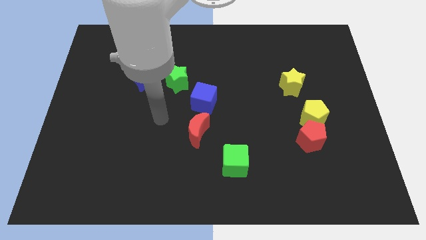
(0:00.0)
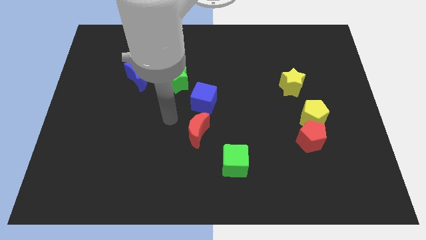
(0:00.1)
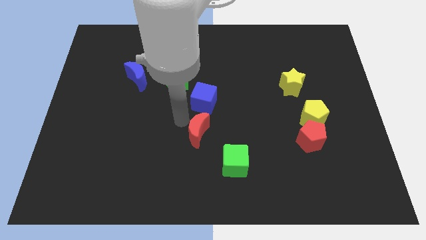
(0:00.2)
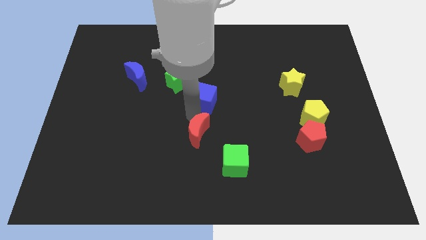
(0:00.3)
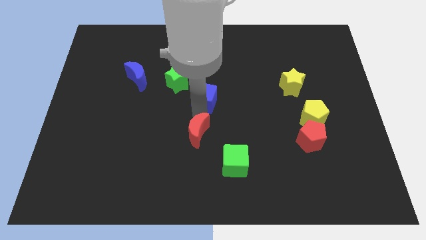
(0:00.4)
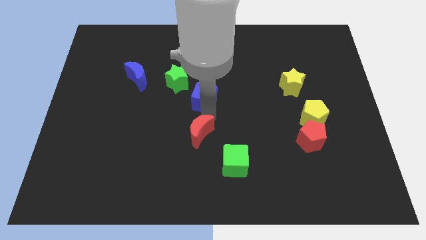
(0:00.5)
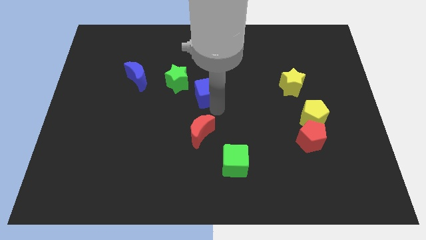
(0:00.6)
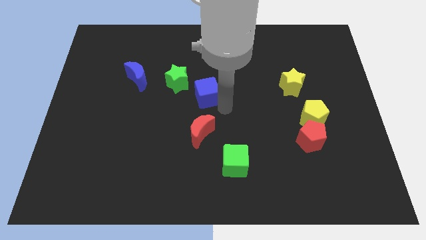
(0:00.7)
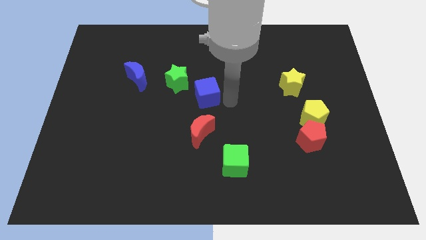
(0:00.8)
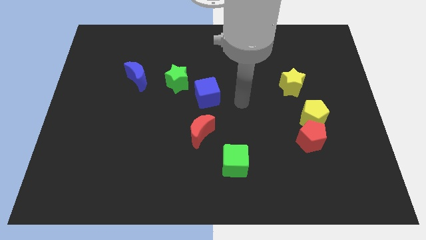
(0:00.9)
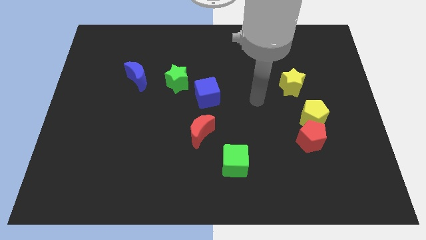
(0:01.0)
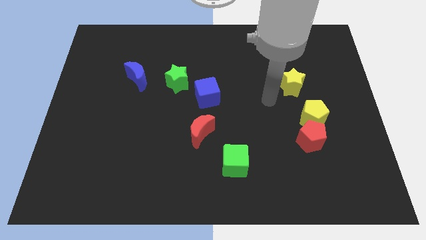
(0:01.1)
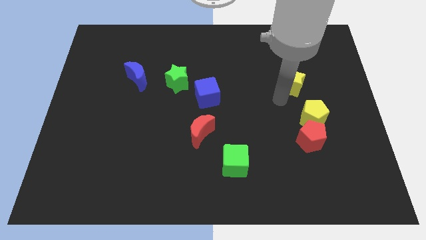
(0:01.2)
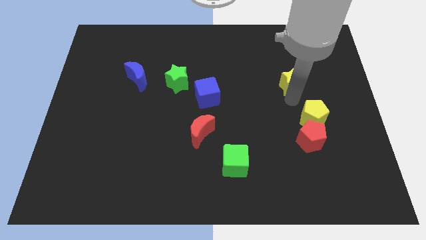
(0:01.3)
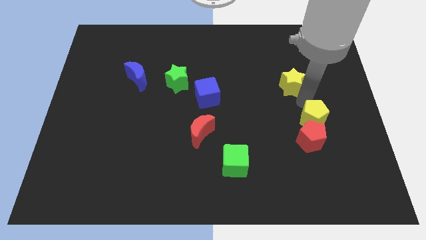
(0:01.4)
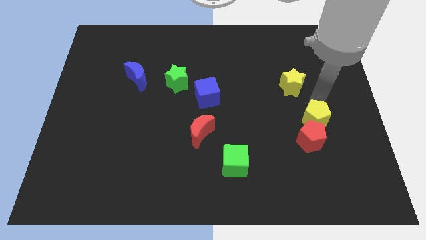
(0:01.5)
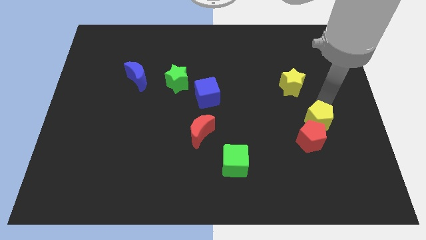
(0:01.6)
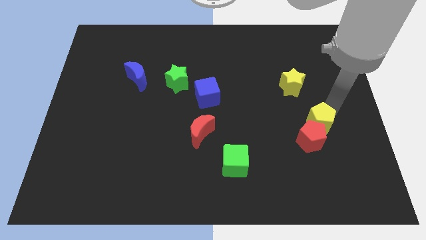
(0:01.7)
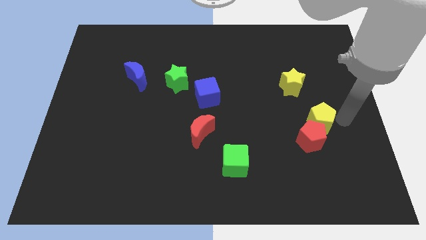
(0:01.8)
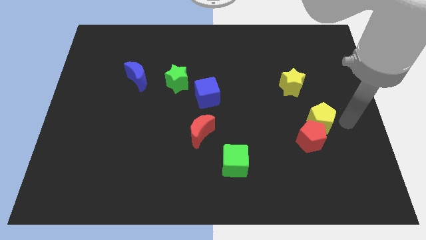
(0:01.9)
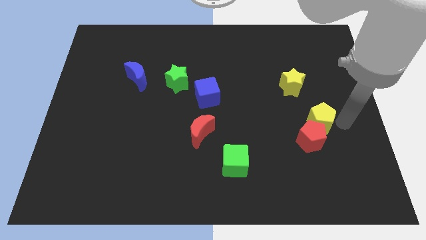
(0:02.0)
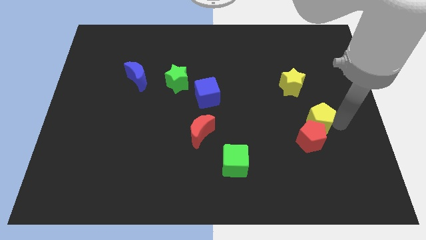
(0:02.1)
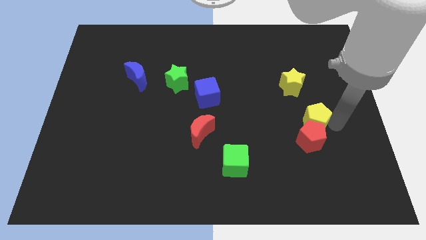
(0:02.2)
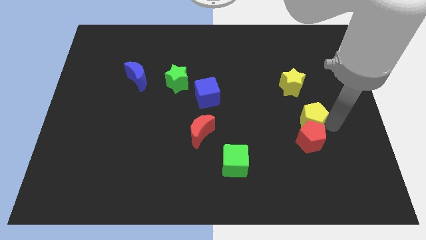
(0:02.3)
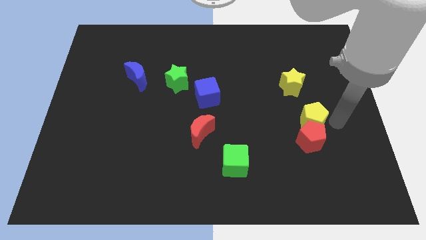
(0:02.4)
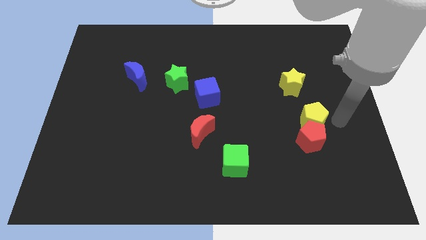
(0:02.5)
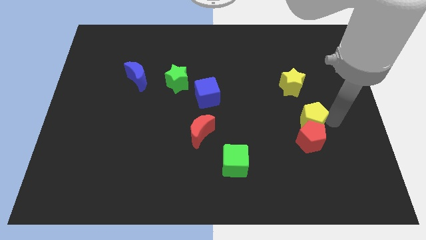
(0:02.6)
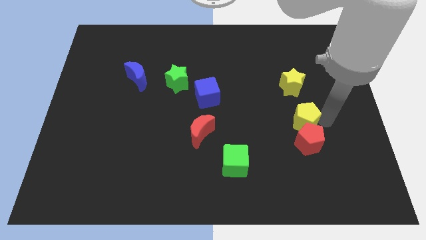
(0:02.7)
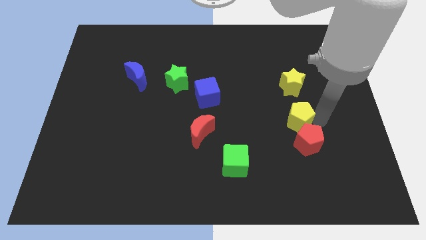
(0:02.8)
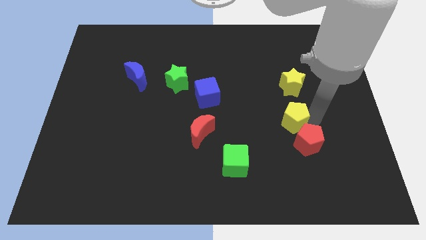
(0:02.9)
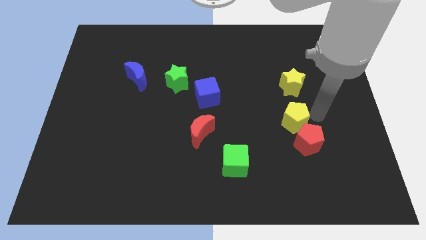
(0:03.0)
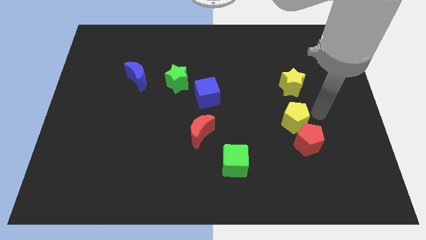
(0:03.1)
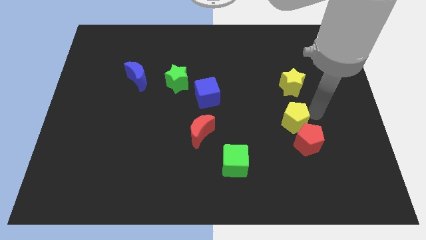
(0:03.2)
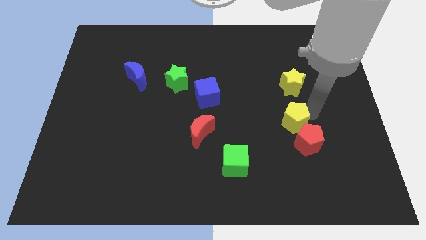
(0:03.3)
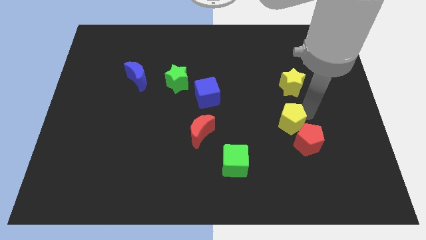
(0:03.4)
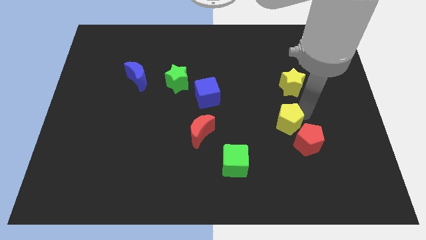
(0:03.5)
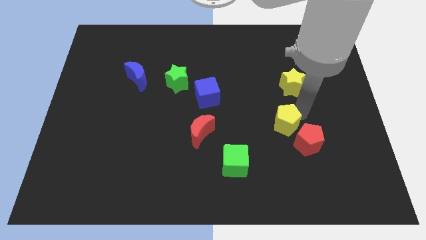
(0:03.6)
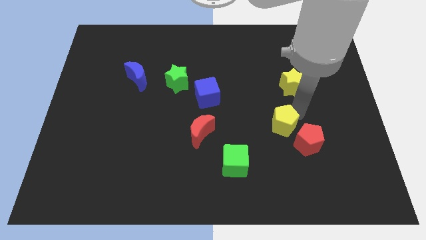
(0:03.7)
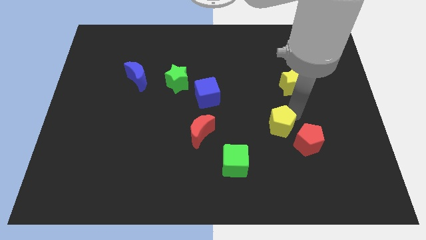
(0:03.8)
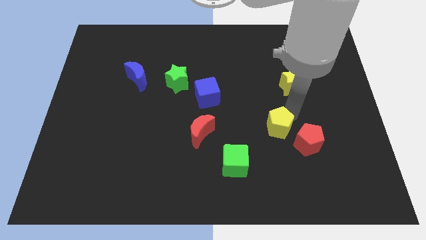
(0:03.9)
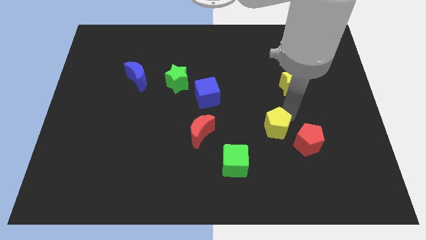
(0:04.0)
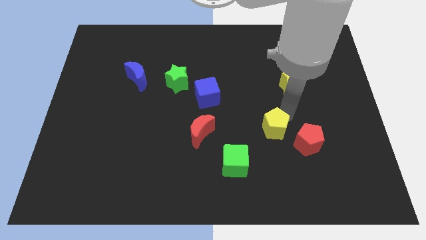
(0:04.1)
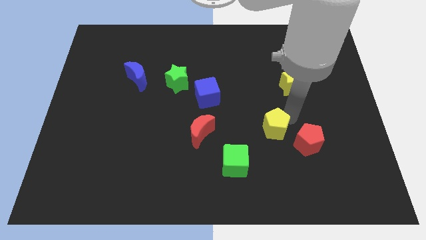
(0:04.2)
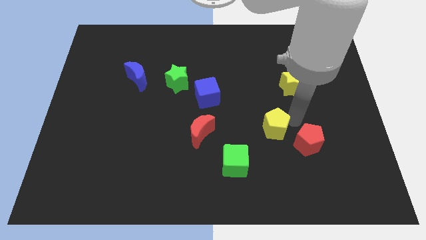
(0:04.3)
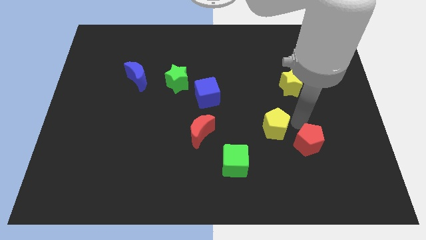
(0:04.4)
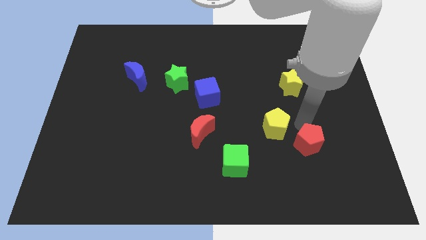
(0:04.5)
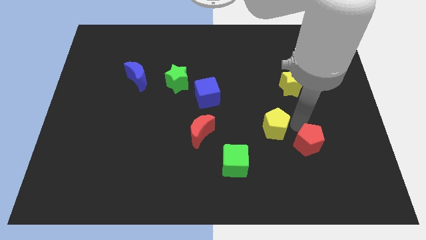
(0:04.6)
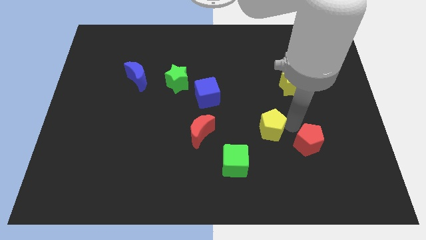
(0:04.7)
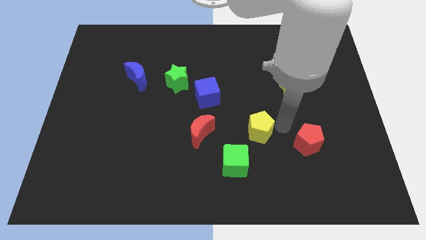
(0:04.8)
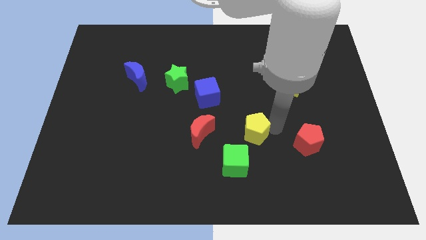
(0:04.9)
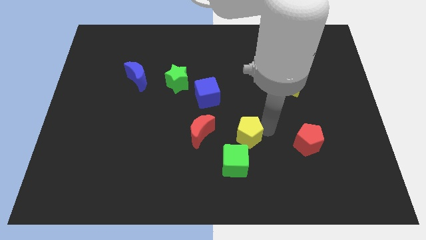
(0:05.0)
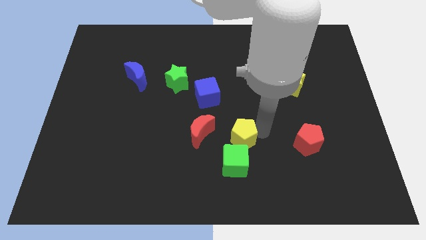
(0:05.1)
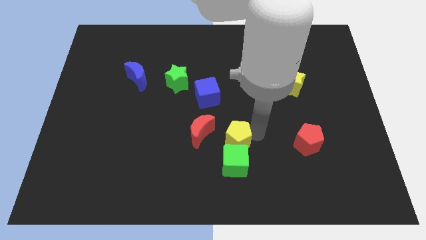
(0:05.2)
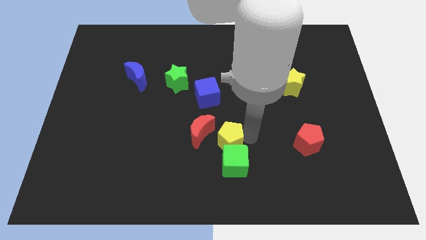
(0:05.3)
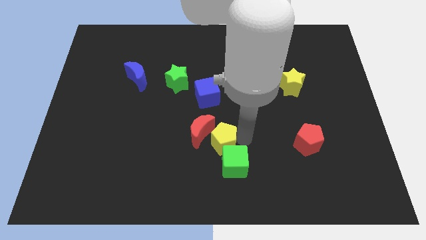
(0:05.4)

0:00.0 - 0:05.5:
put the yellow pentagon close to the red moon

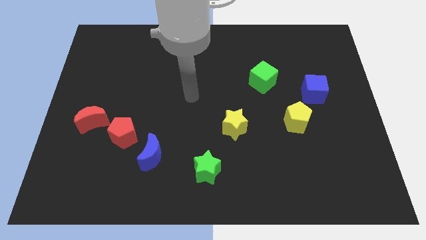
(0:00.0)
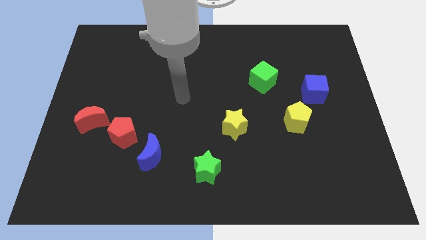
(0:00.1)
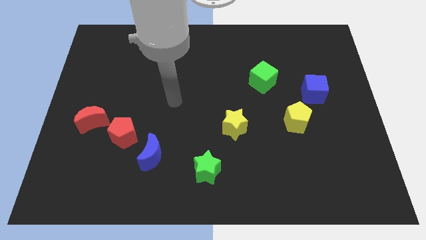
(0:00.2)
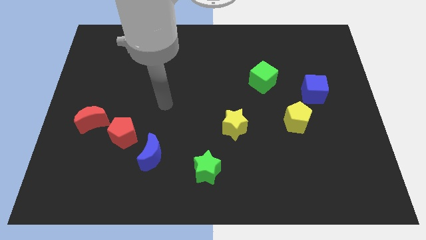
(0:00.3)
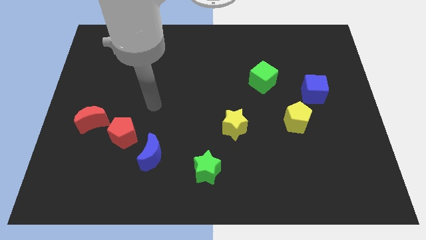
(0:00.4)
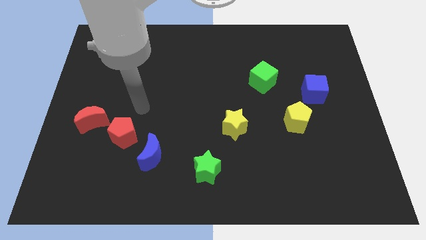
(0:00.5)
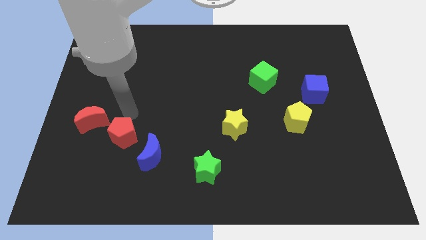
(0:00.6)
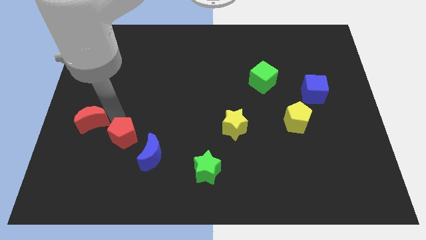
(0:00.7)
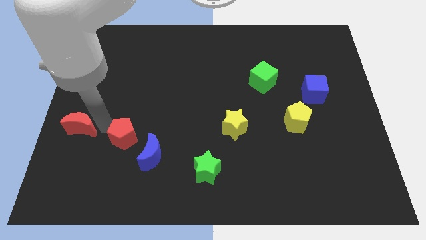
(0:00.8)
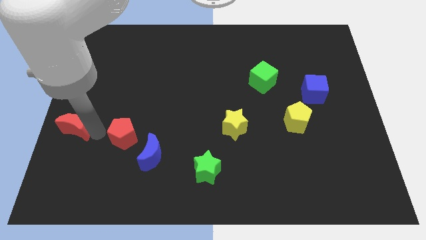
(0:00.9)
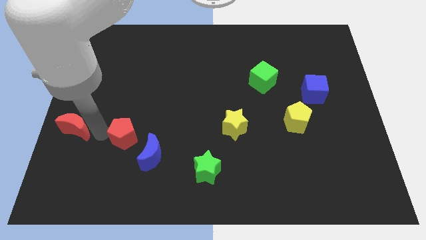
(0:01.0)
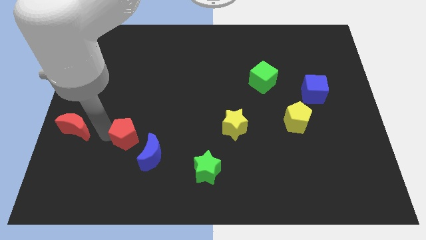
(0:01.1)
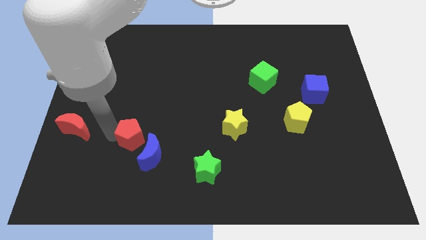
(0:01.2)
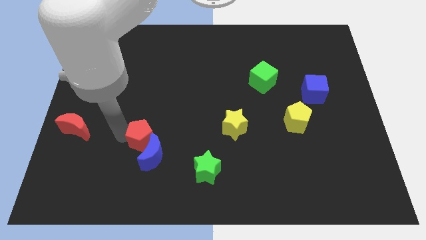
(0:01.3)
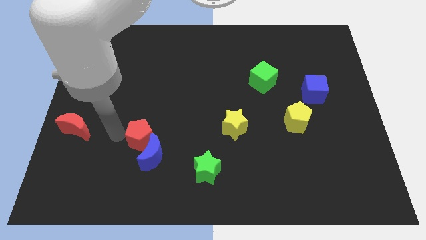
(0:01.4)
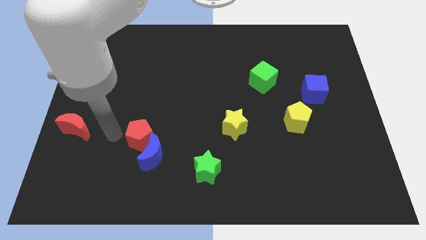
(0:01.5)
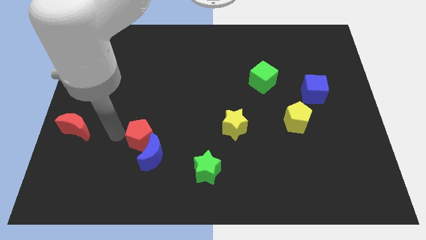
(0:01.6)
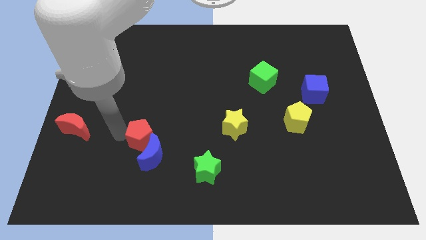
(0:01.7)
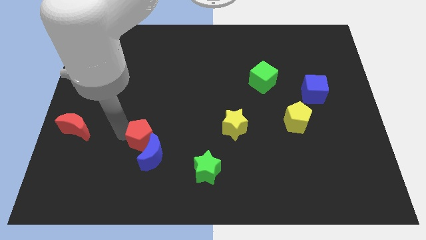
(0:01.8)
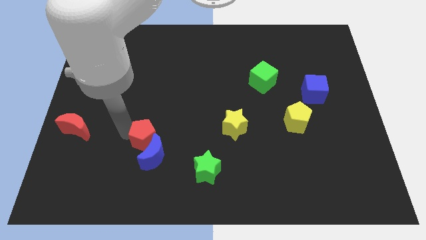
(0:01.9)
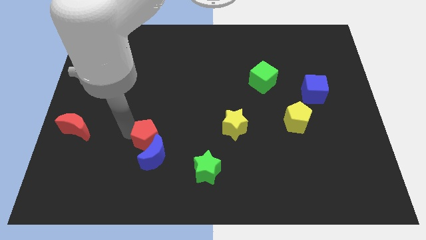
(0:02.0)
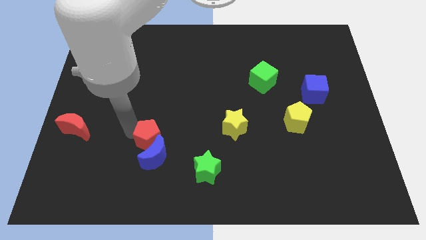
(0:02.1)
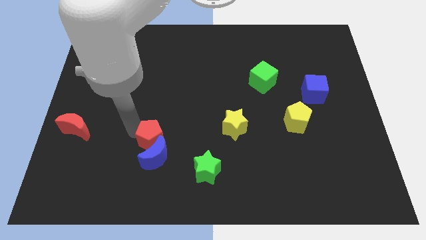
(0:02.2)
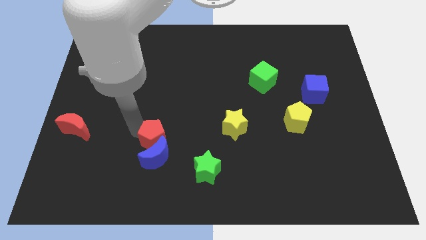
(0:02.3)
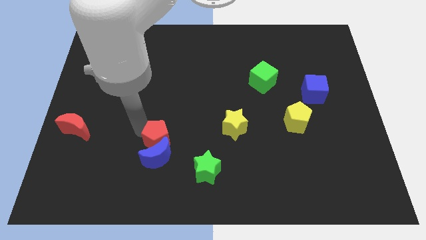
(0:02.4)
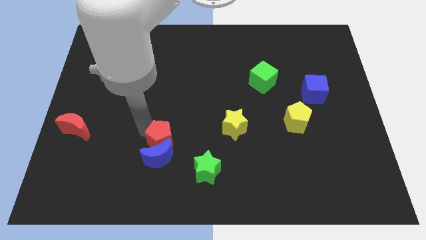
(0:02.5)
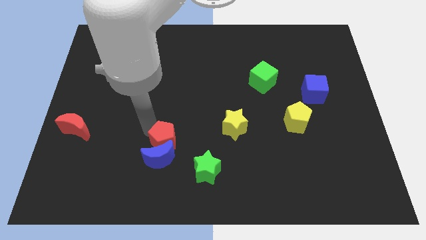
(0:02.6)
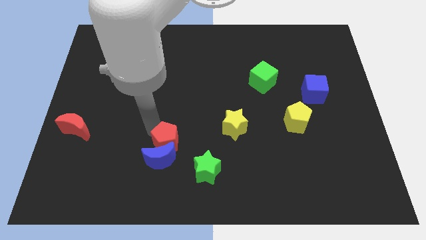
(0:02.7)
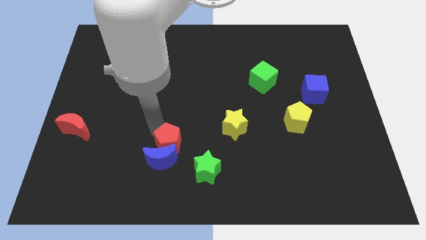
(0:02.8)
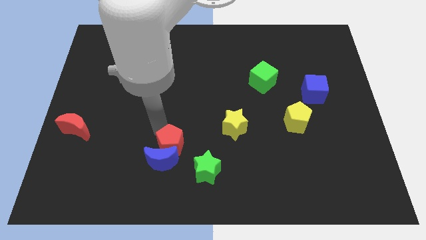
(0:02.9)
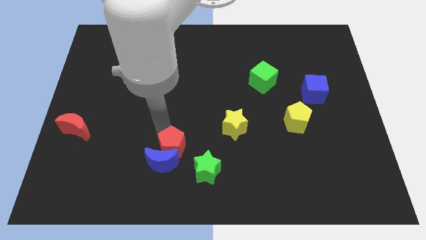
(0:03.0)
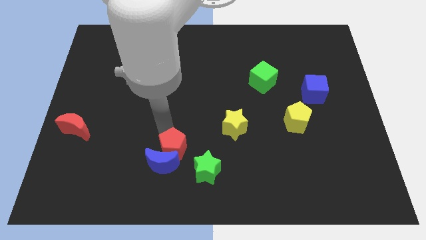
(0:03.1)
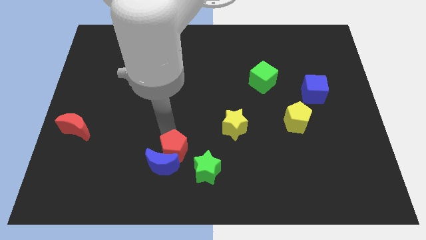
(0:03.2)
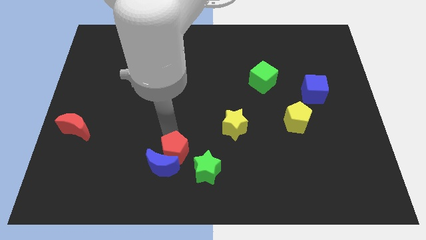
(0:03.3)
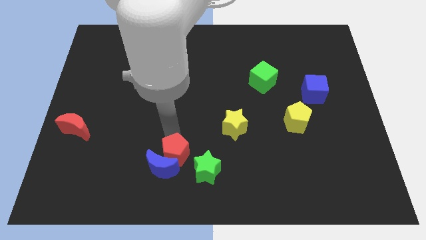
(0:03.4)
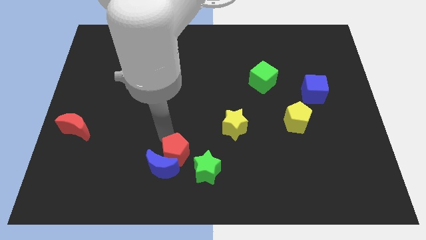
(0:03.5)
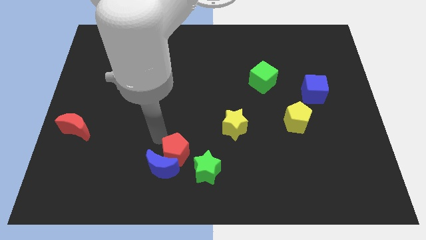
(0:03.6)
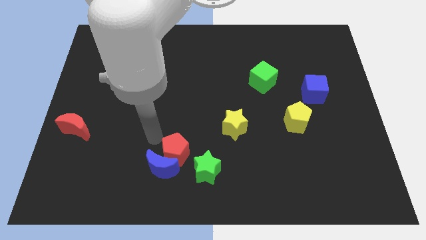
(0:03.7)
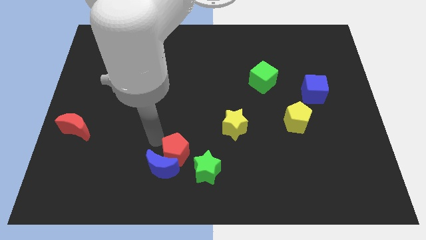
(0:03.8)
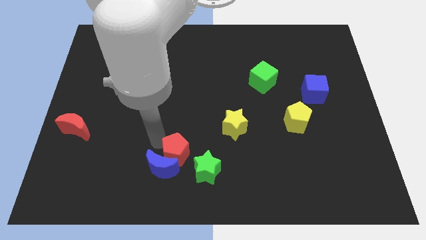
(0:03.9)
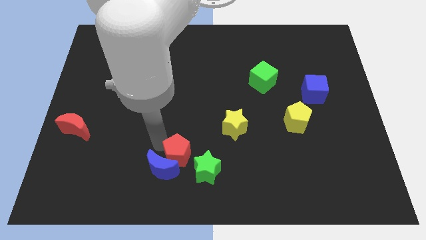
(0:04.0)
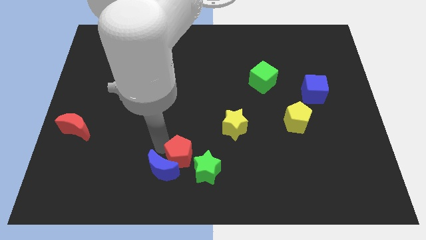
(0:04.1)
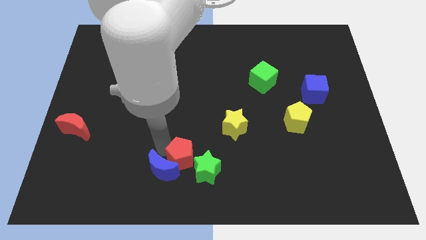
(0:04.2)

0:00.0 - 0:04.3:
push the red pentagon to the green star
